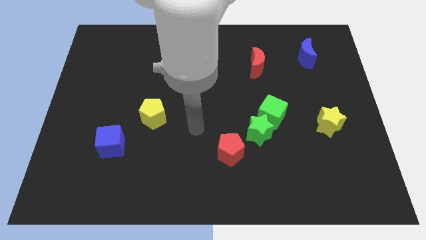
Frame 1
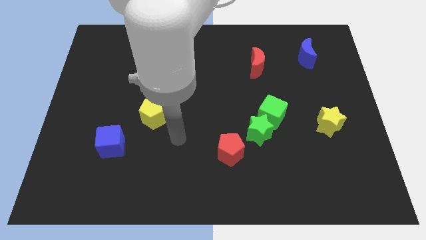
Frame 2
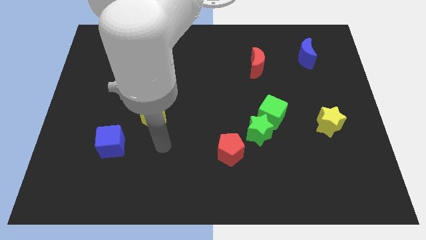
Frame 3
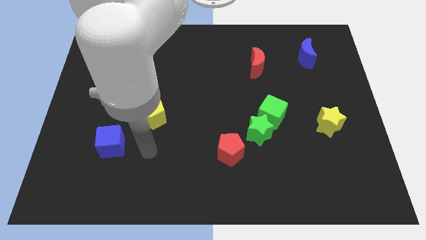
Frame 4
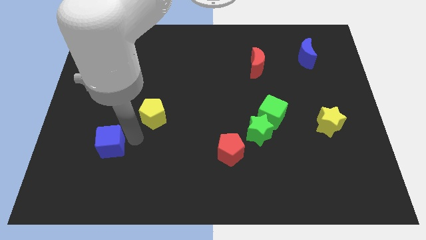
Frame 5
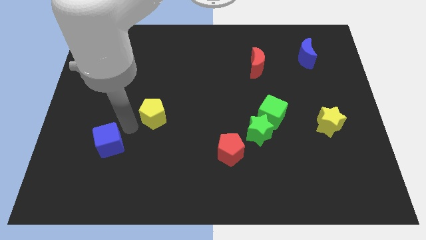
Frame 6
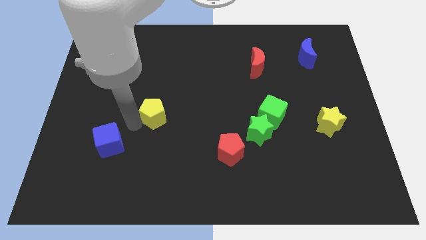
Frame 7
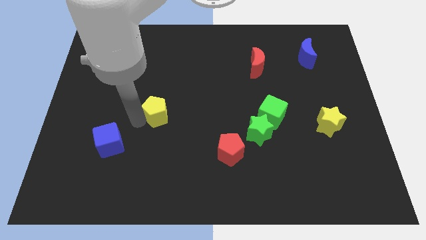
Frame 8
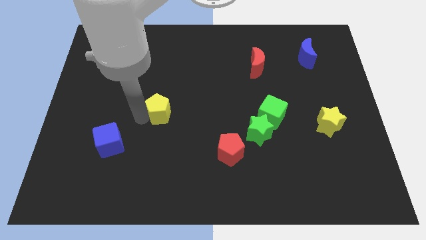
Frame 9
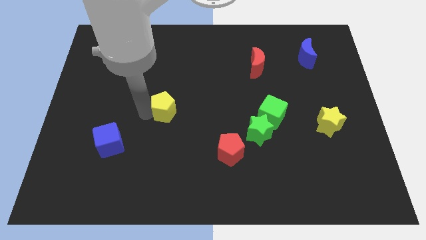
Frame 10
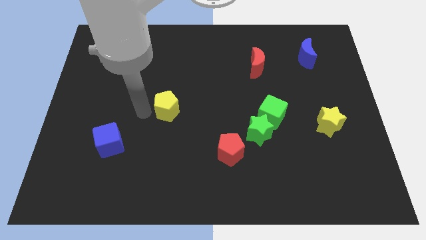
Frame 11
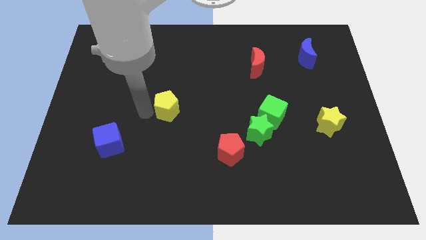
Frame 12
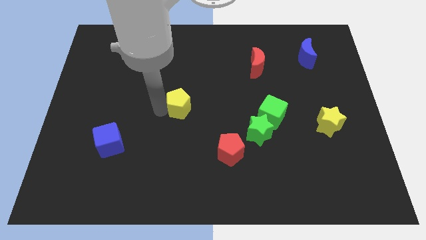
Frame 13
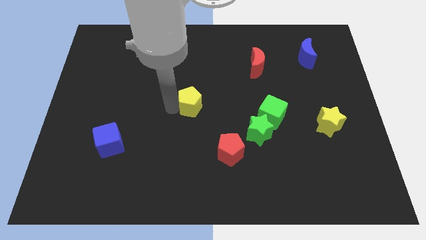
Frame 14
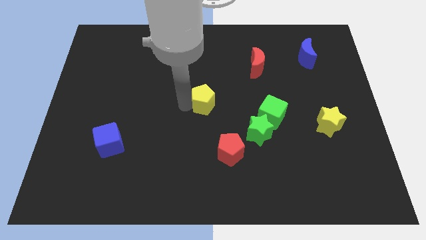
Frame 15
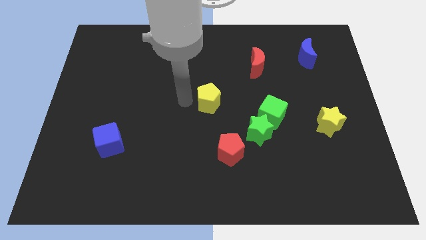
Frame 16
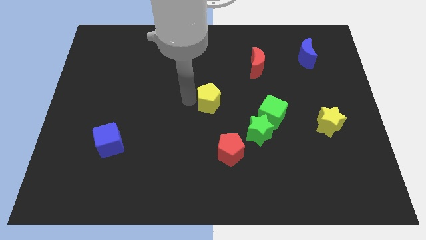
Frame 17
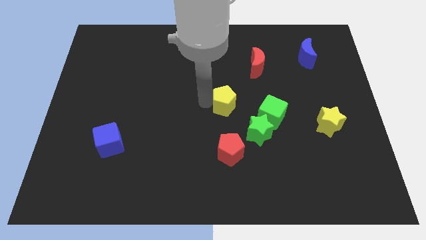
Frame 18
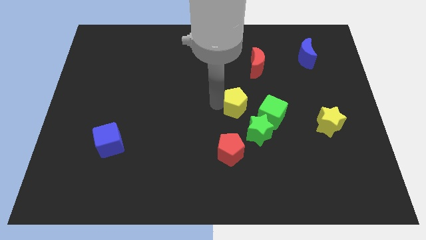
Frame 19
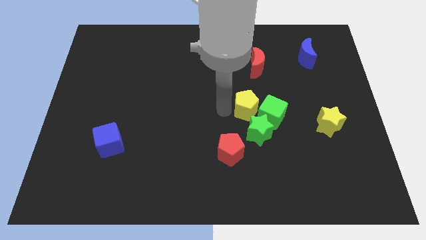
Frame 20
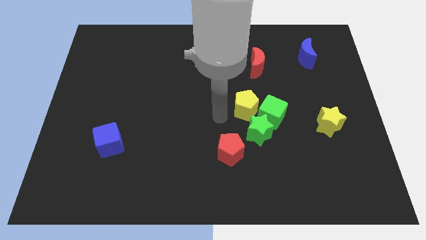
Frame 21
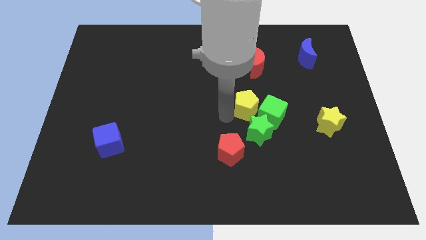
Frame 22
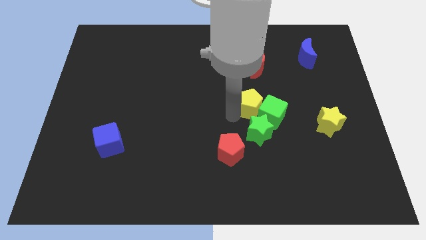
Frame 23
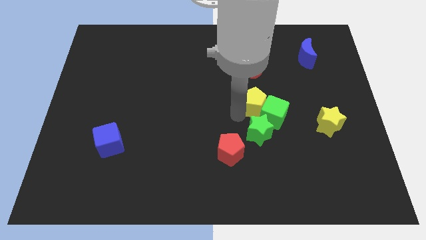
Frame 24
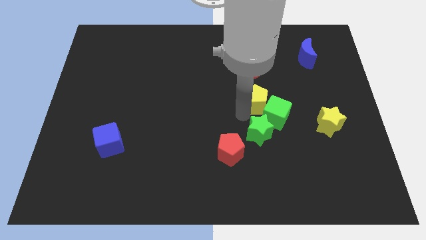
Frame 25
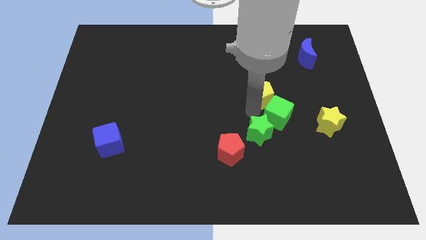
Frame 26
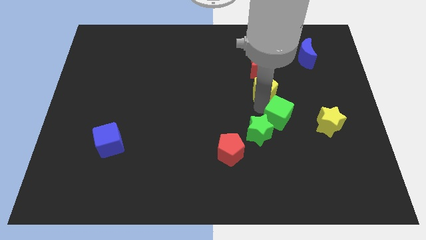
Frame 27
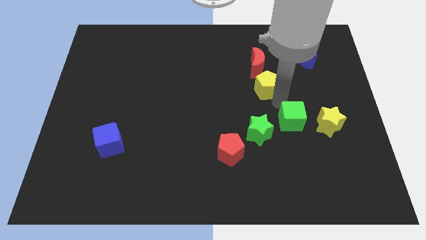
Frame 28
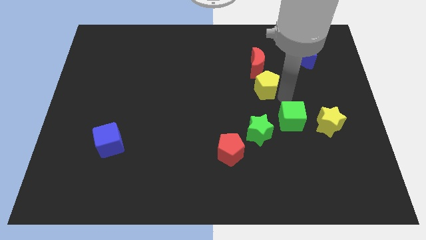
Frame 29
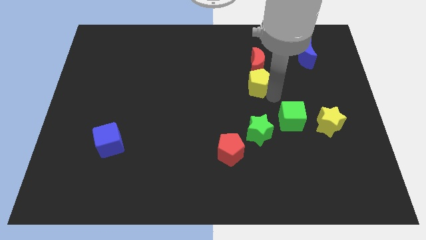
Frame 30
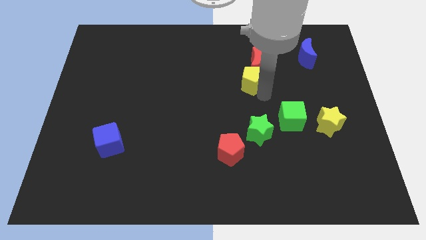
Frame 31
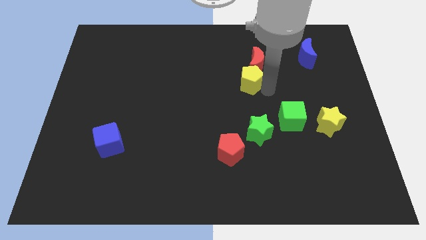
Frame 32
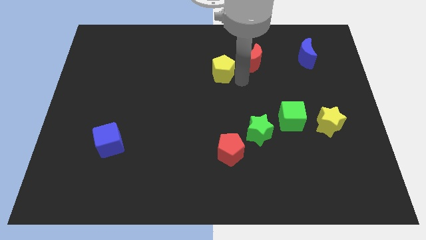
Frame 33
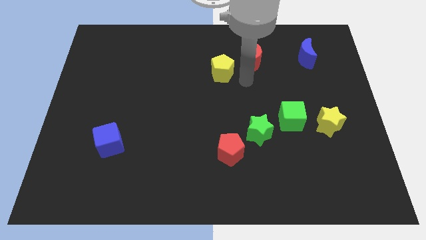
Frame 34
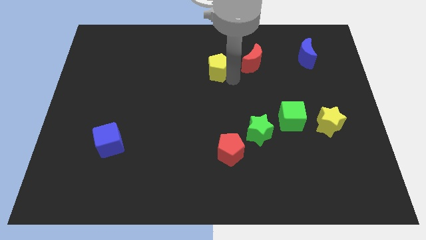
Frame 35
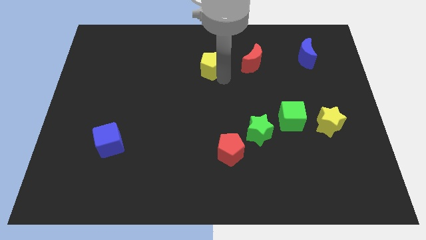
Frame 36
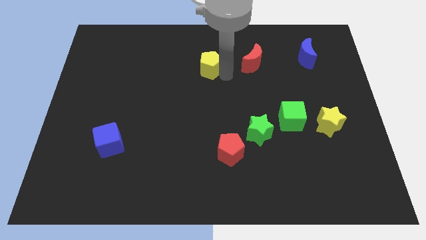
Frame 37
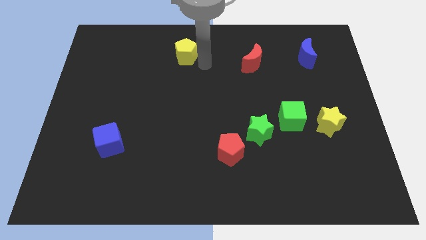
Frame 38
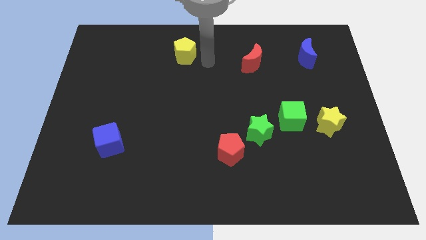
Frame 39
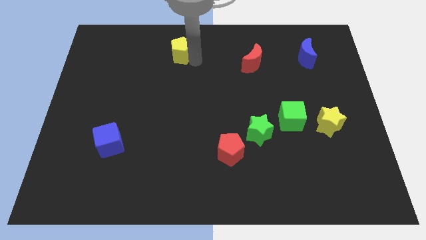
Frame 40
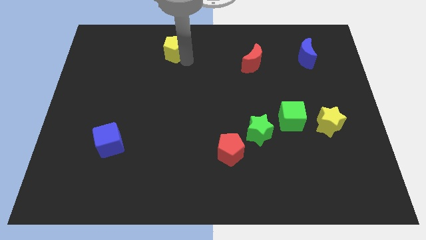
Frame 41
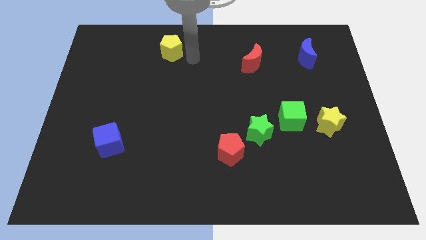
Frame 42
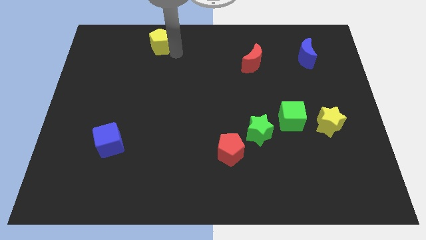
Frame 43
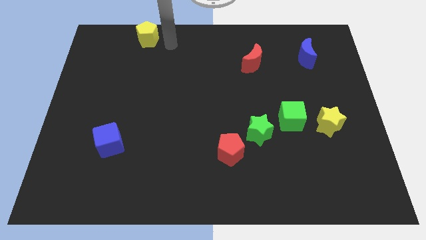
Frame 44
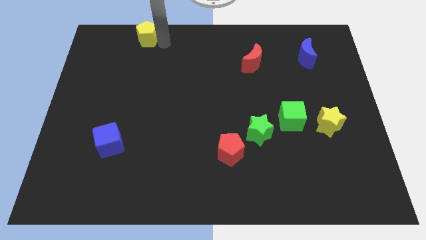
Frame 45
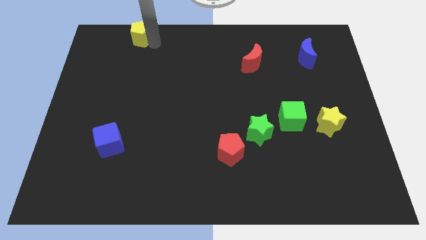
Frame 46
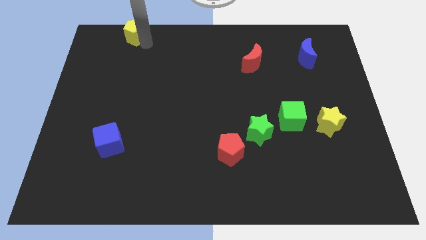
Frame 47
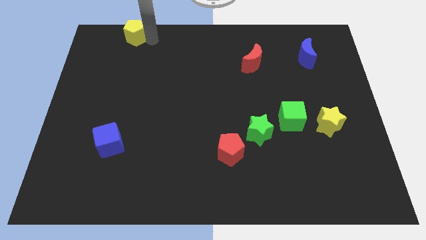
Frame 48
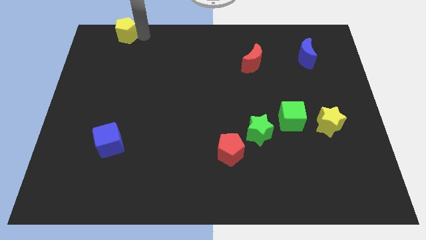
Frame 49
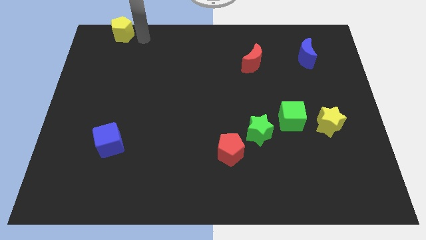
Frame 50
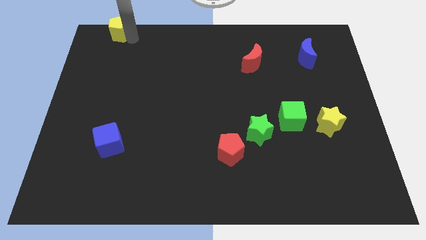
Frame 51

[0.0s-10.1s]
slide the yellow pentagon to the top left of the board

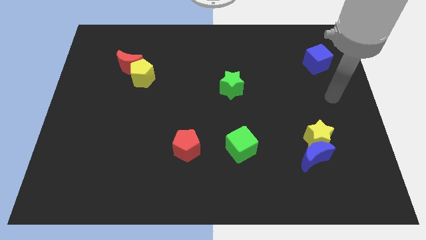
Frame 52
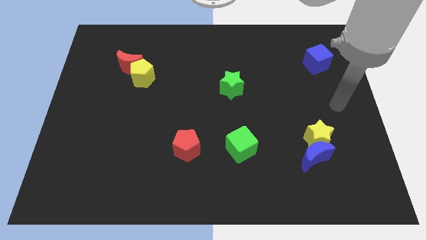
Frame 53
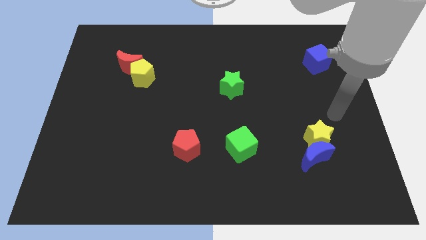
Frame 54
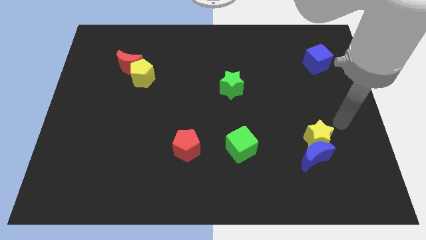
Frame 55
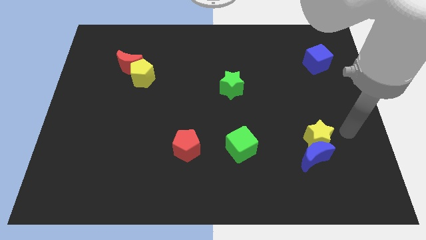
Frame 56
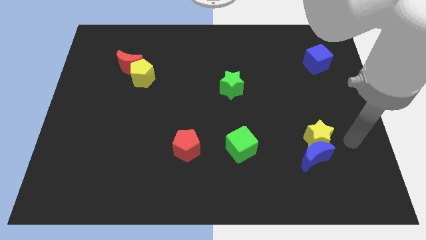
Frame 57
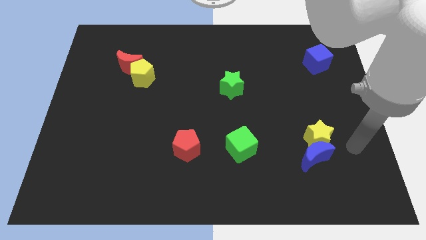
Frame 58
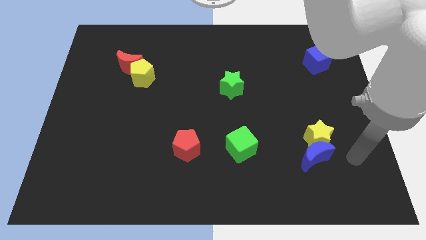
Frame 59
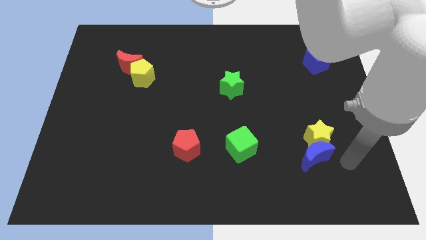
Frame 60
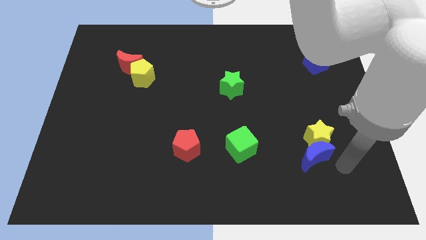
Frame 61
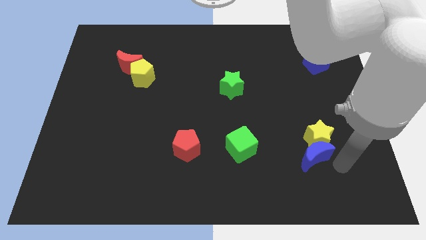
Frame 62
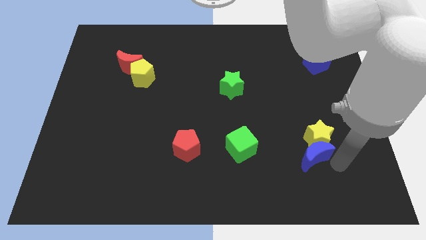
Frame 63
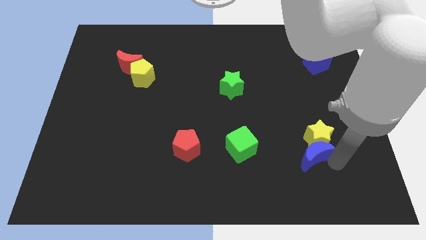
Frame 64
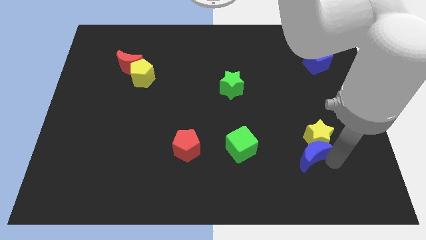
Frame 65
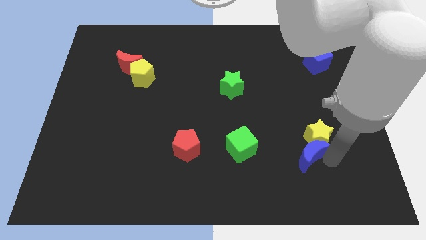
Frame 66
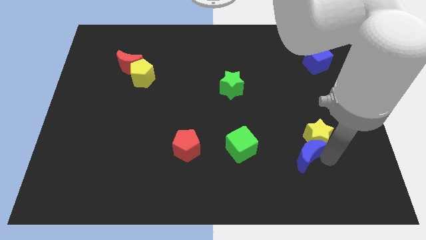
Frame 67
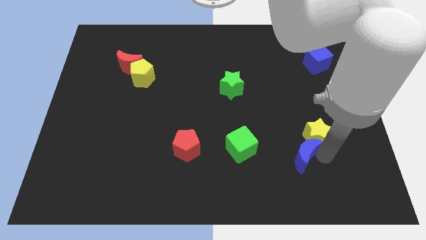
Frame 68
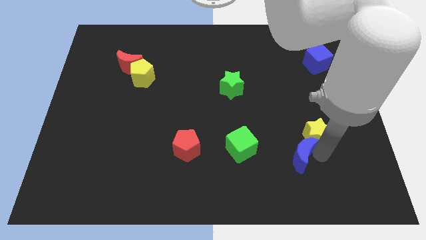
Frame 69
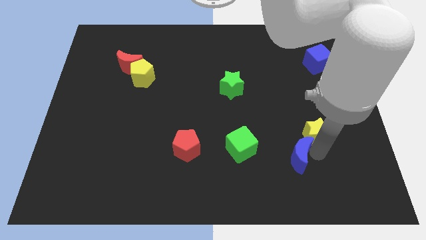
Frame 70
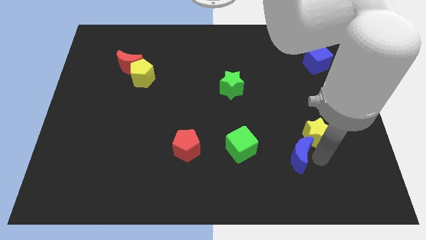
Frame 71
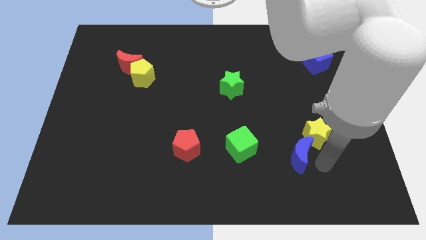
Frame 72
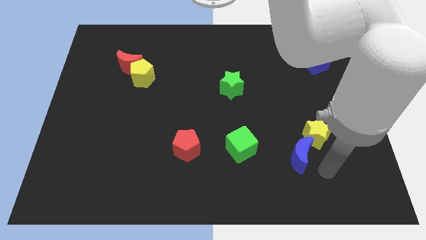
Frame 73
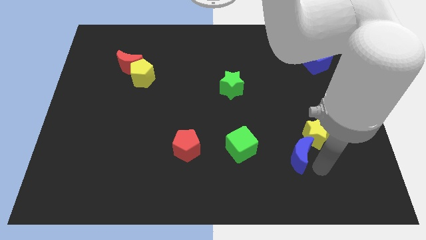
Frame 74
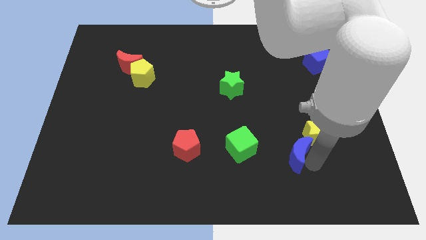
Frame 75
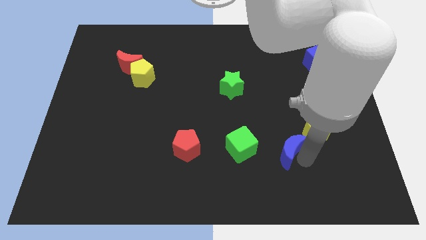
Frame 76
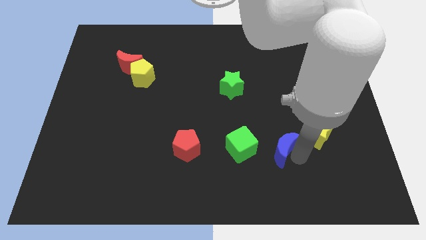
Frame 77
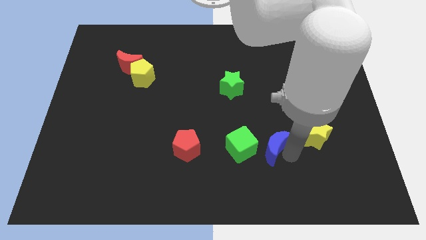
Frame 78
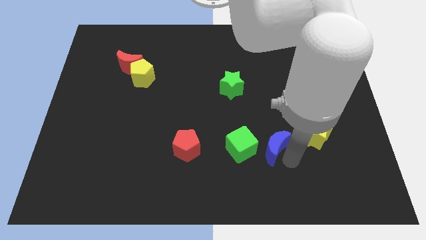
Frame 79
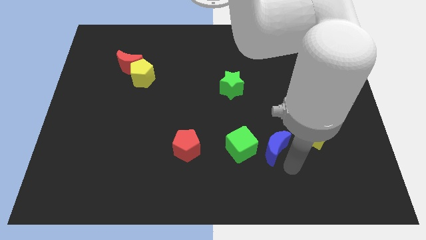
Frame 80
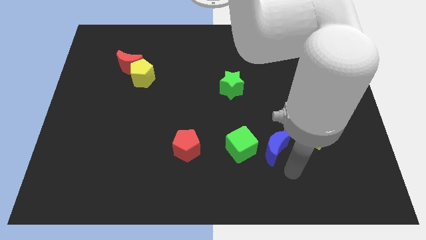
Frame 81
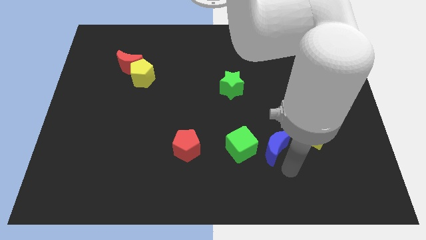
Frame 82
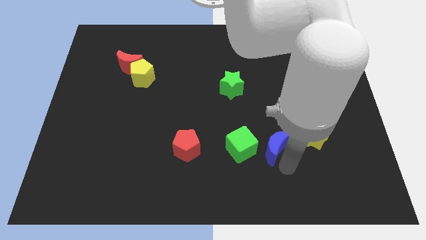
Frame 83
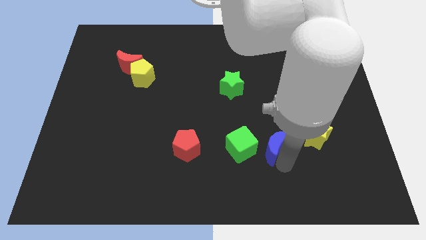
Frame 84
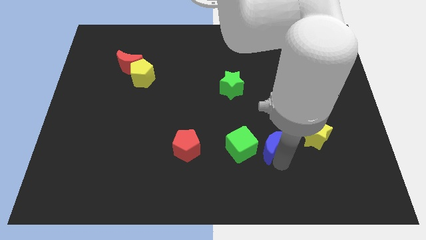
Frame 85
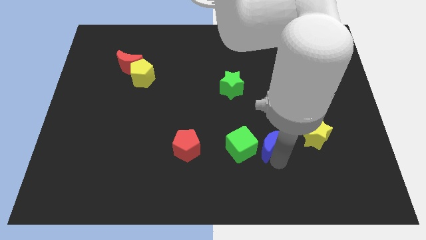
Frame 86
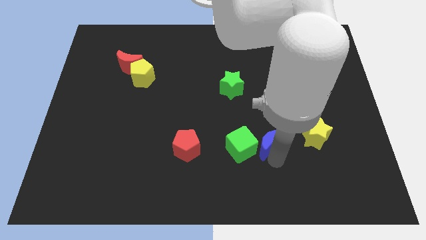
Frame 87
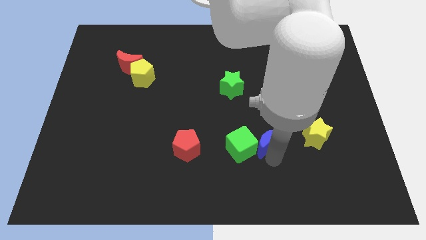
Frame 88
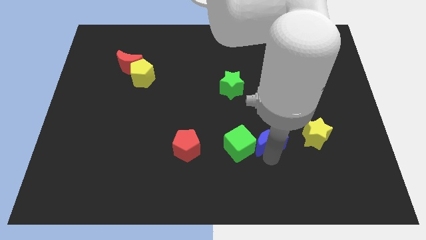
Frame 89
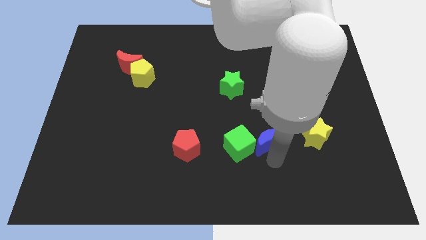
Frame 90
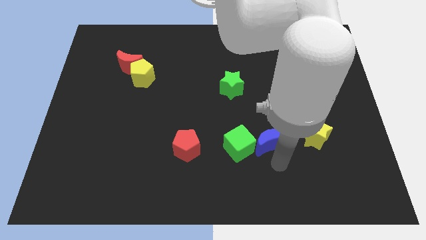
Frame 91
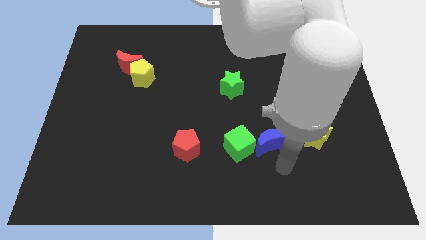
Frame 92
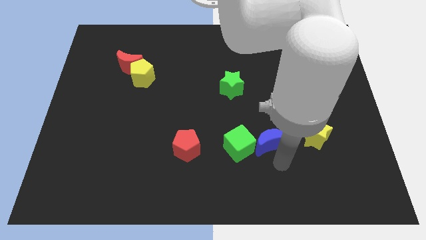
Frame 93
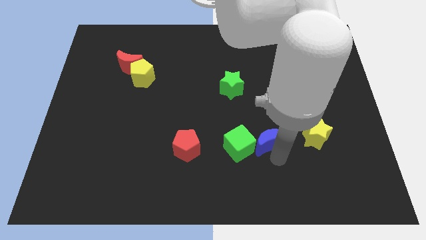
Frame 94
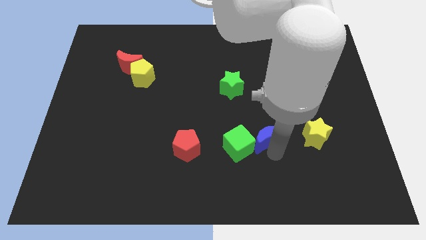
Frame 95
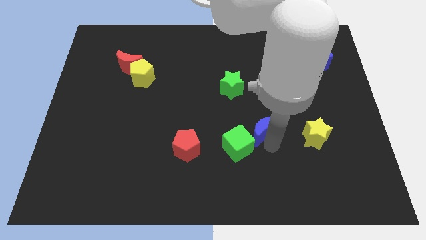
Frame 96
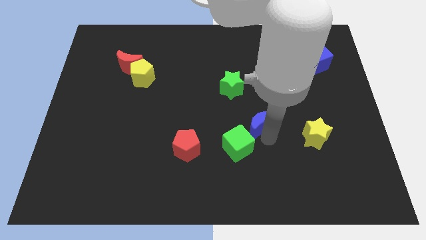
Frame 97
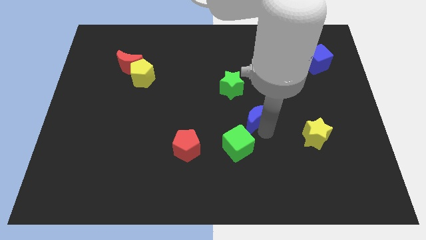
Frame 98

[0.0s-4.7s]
slide the blue moon to the middle
